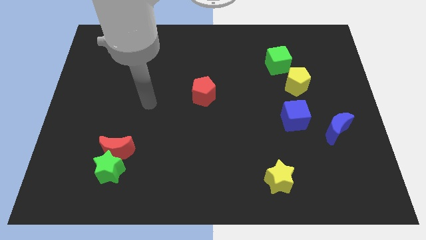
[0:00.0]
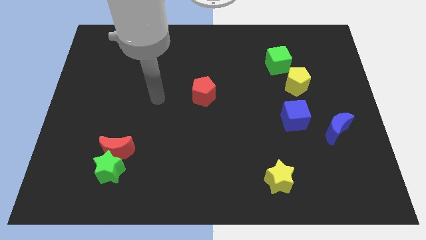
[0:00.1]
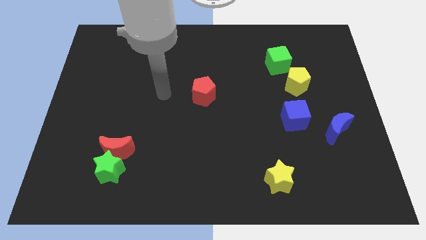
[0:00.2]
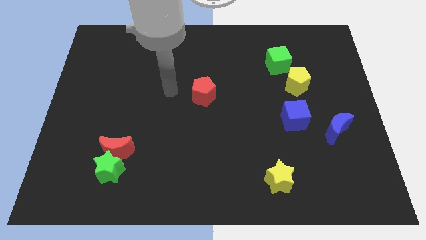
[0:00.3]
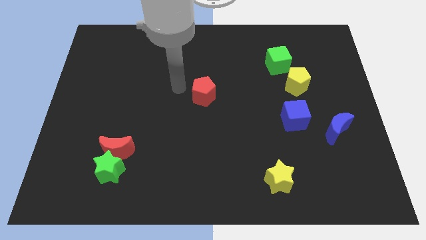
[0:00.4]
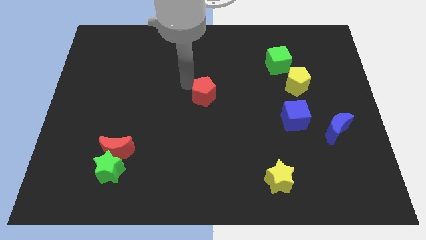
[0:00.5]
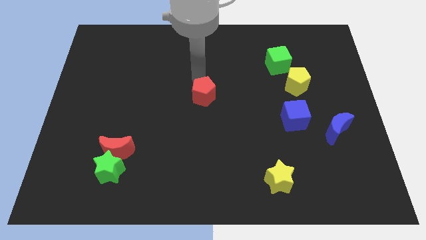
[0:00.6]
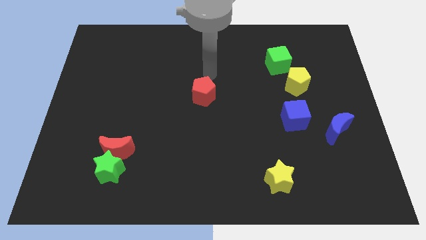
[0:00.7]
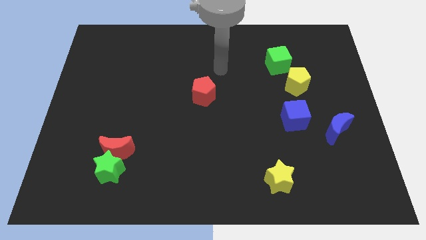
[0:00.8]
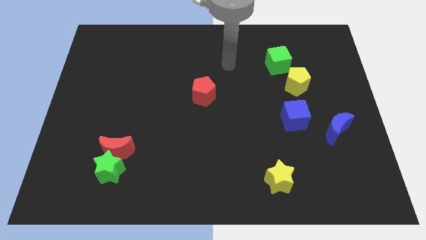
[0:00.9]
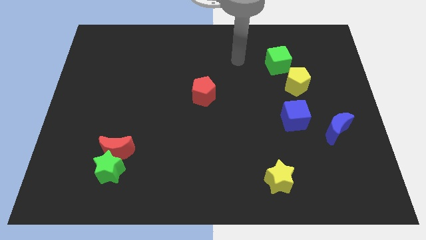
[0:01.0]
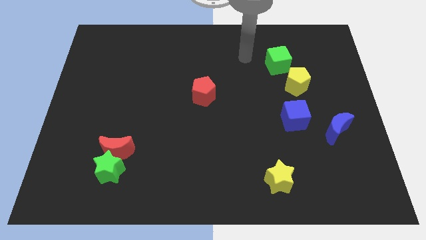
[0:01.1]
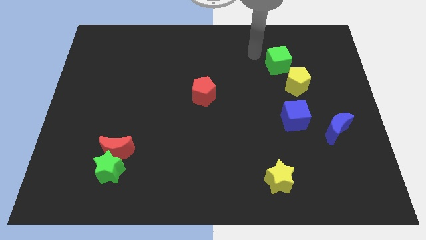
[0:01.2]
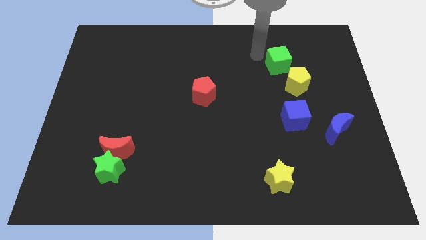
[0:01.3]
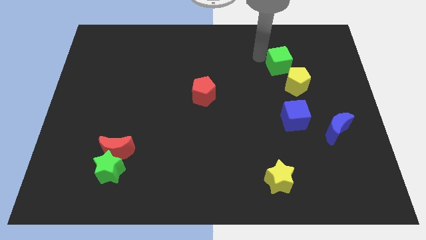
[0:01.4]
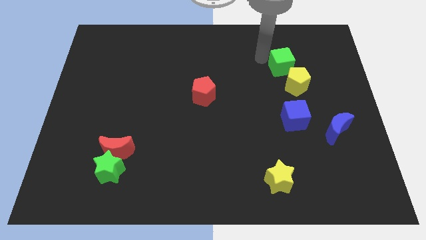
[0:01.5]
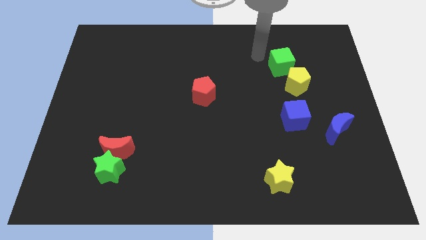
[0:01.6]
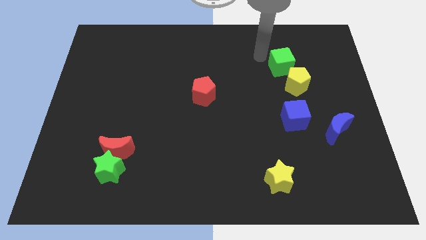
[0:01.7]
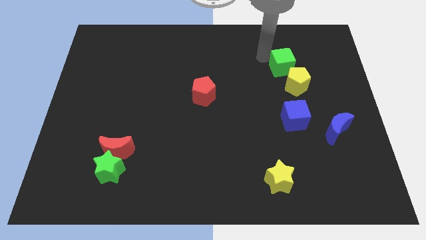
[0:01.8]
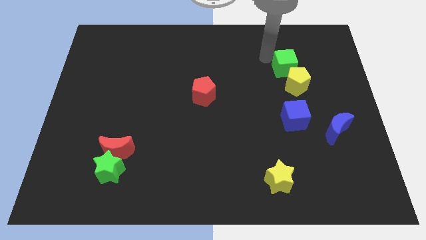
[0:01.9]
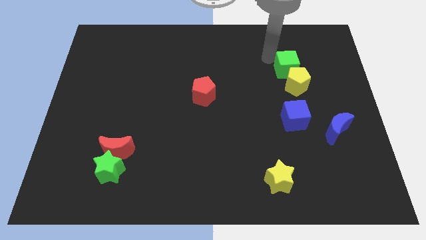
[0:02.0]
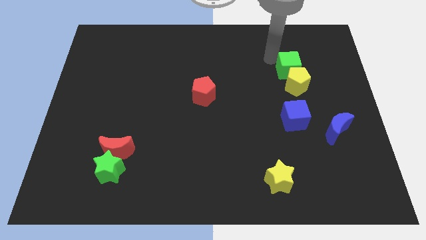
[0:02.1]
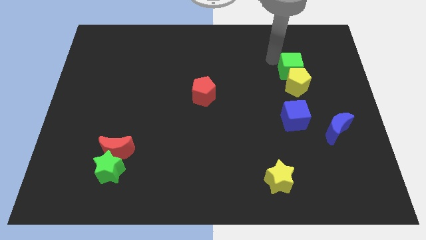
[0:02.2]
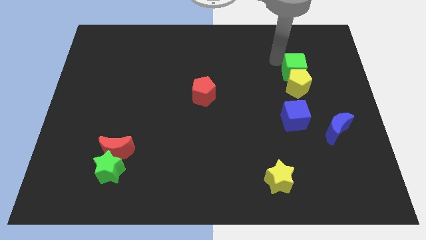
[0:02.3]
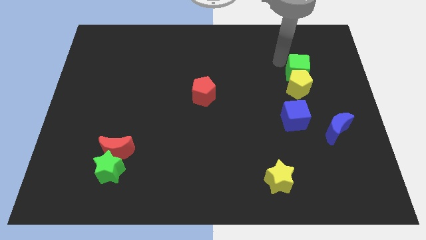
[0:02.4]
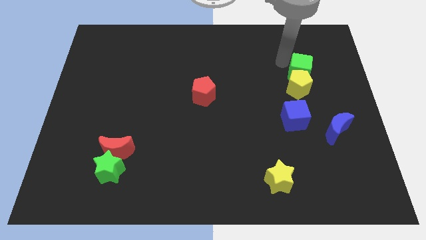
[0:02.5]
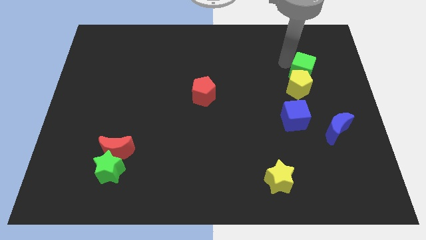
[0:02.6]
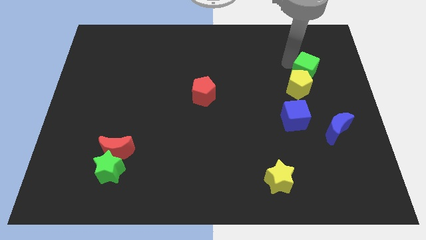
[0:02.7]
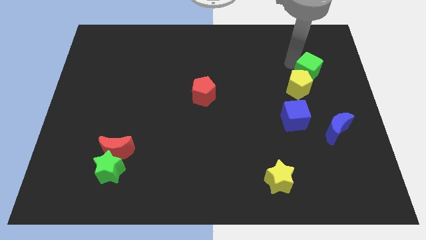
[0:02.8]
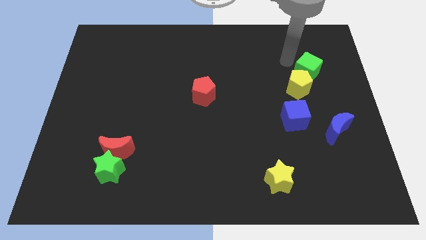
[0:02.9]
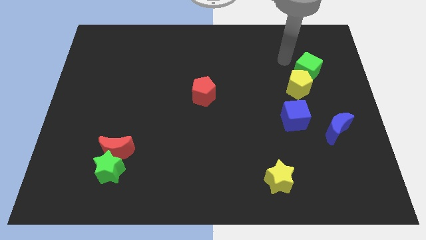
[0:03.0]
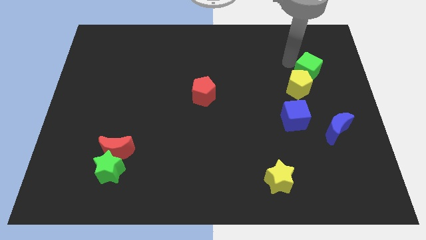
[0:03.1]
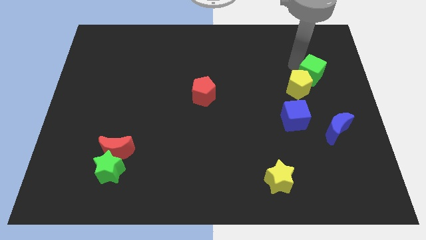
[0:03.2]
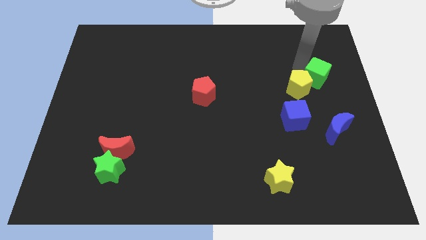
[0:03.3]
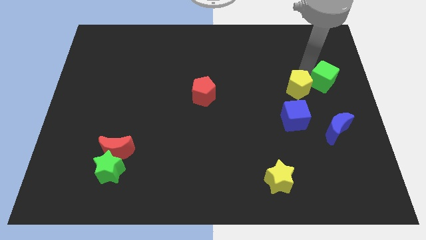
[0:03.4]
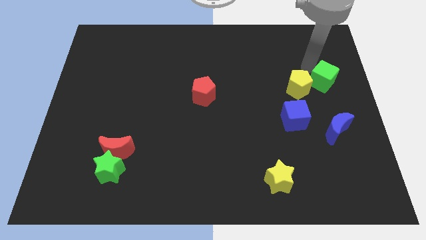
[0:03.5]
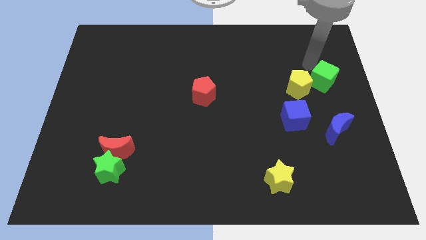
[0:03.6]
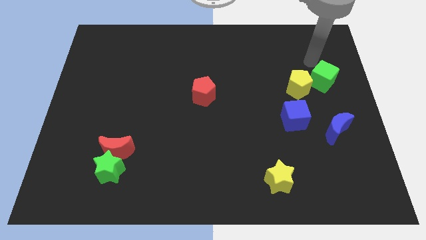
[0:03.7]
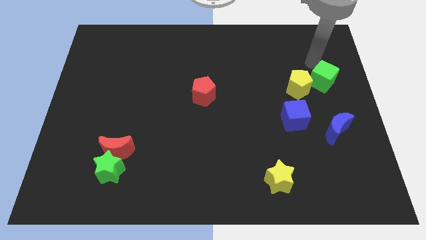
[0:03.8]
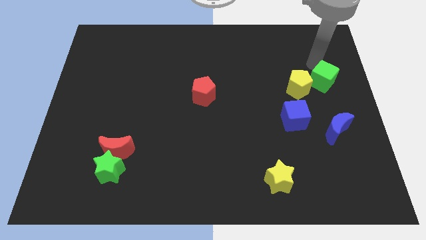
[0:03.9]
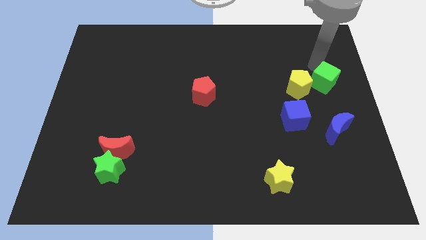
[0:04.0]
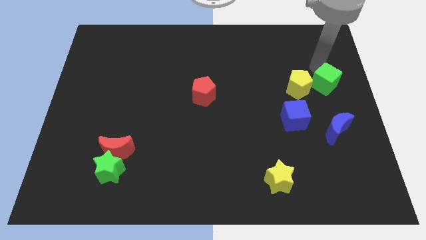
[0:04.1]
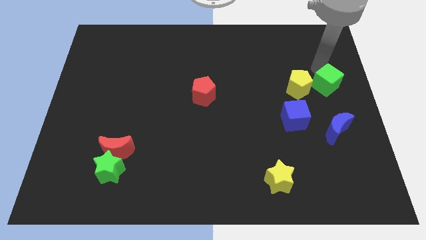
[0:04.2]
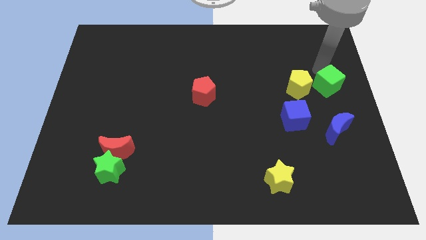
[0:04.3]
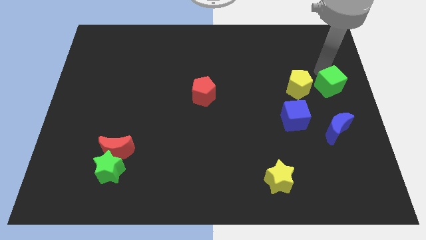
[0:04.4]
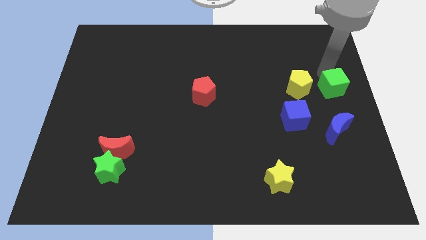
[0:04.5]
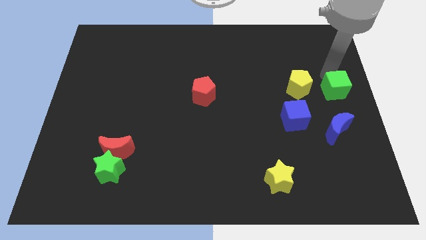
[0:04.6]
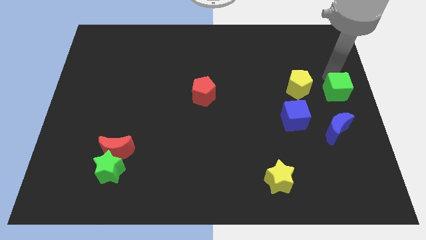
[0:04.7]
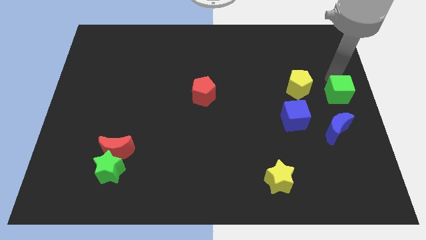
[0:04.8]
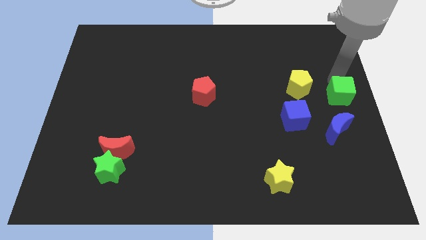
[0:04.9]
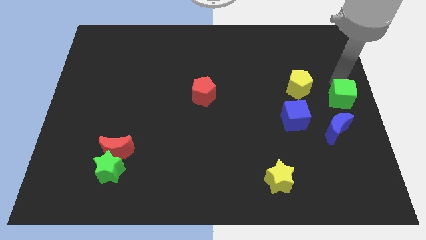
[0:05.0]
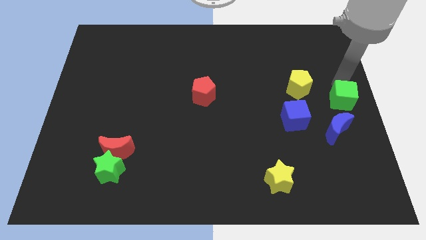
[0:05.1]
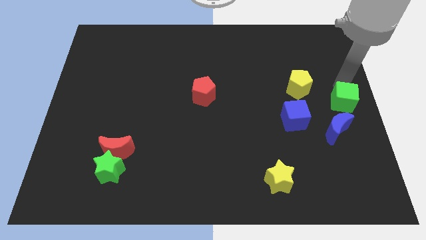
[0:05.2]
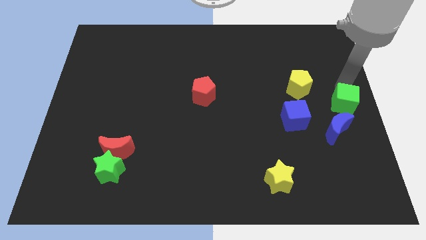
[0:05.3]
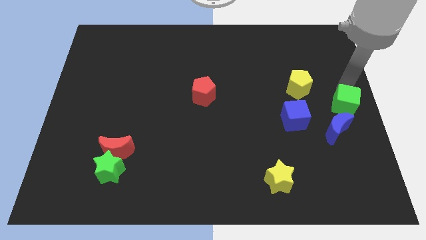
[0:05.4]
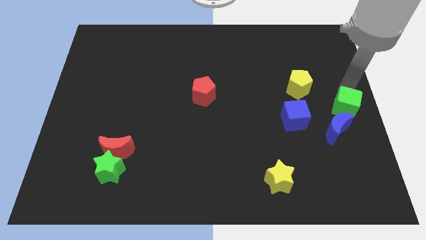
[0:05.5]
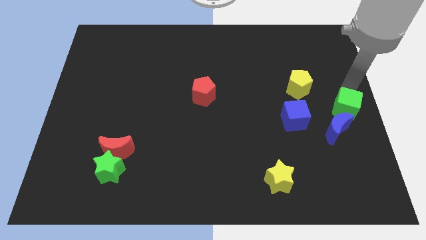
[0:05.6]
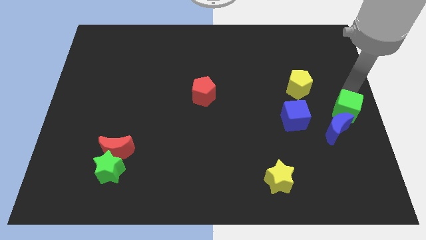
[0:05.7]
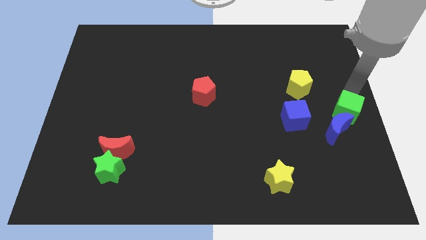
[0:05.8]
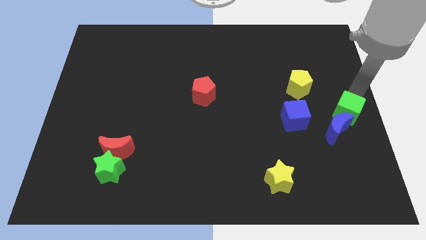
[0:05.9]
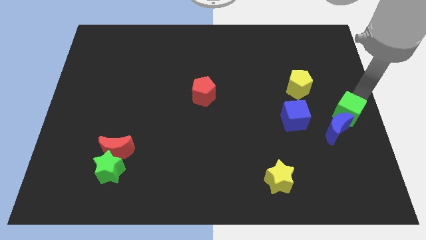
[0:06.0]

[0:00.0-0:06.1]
slide the green cube to the blue moon
